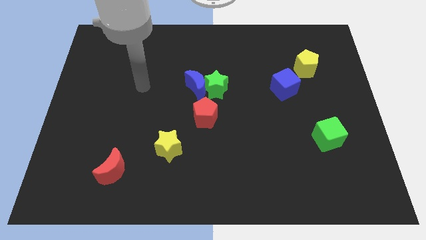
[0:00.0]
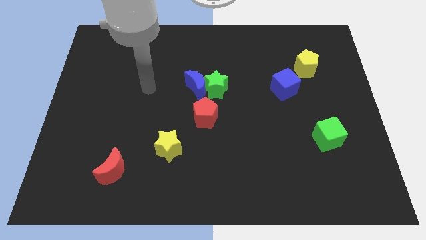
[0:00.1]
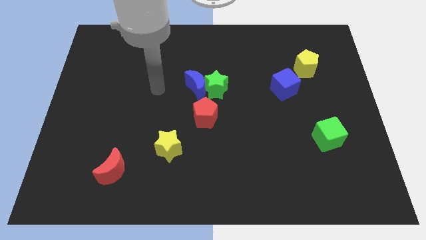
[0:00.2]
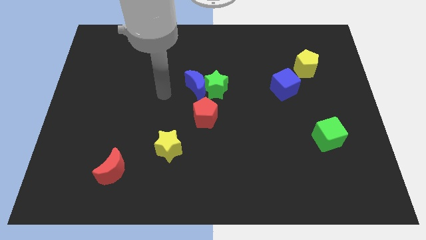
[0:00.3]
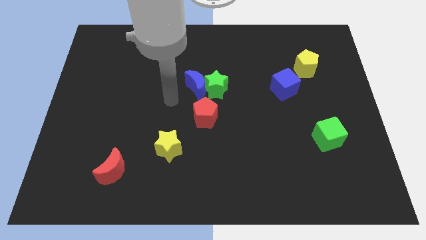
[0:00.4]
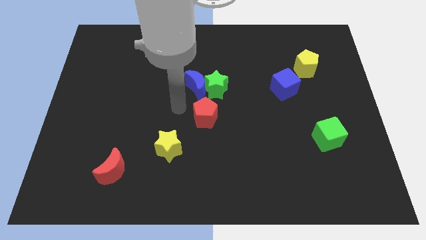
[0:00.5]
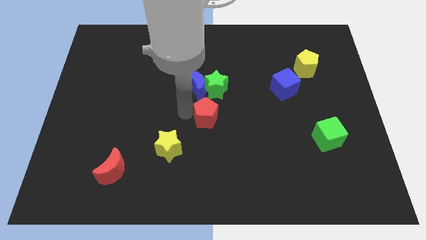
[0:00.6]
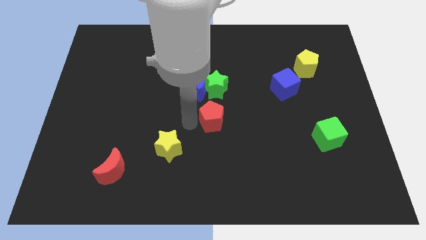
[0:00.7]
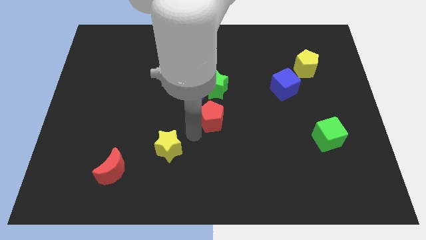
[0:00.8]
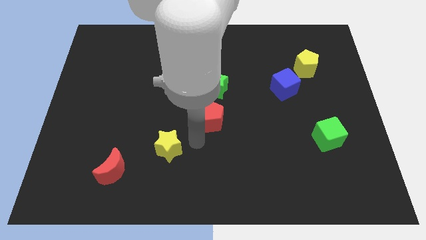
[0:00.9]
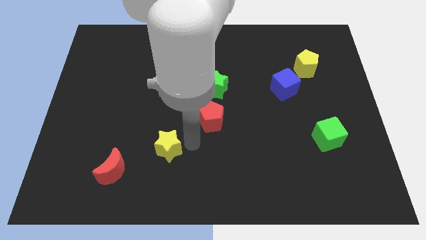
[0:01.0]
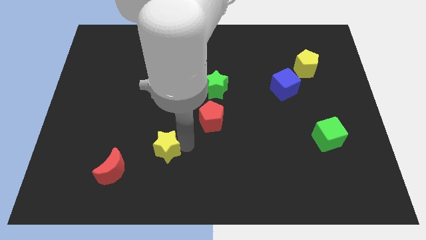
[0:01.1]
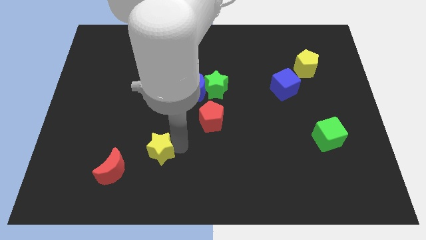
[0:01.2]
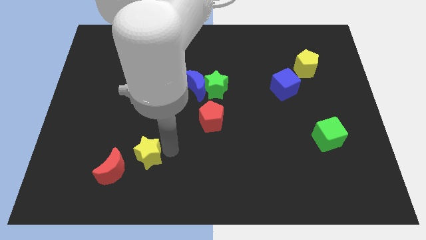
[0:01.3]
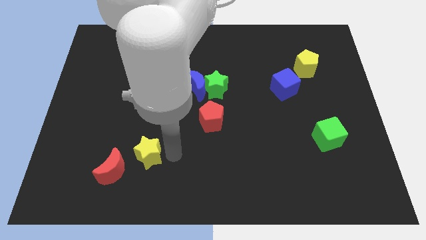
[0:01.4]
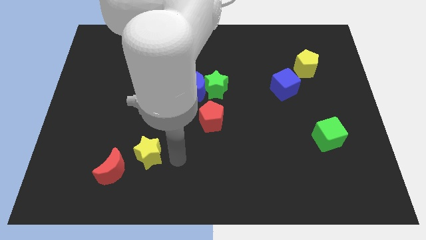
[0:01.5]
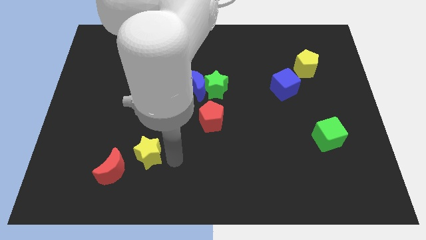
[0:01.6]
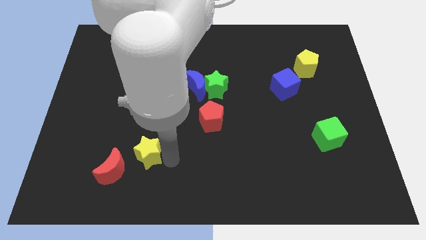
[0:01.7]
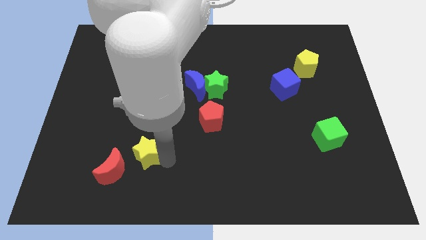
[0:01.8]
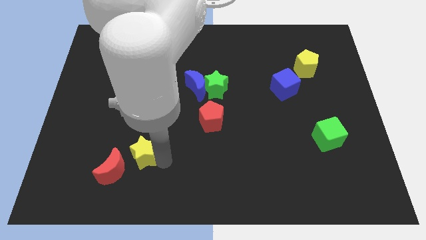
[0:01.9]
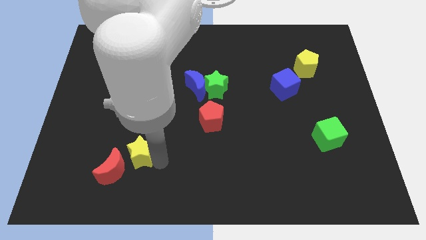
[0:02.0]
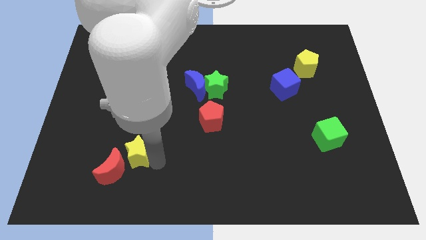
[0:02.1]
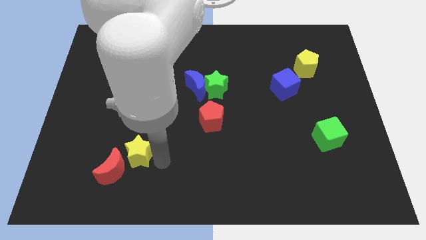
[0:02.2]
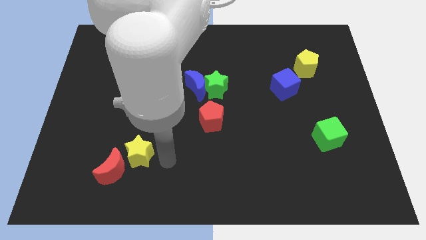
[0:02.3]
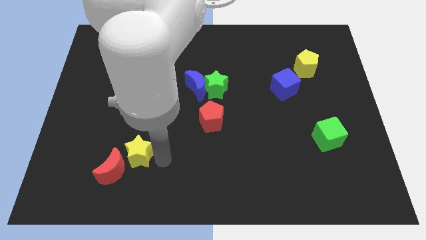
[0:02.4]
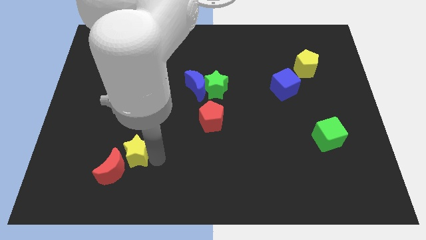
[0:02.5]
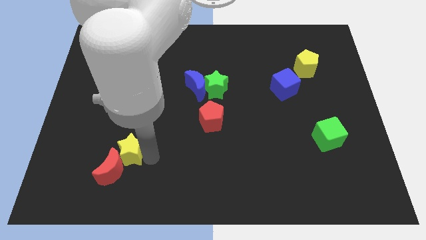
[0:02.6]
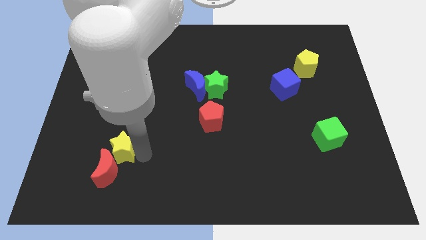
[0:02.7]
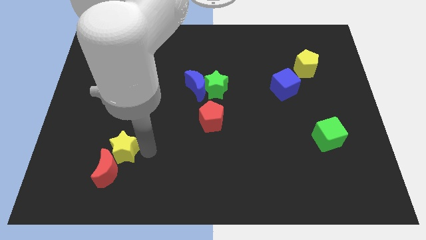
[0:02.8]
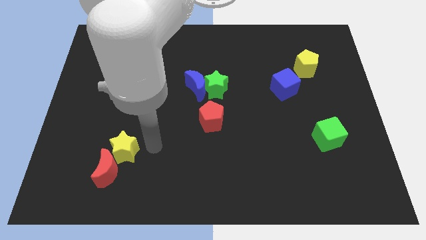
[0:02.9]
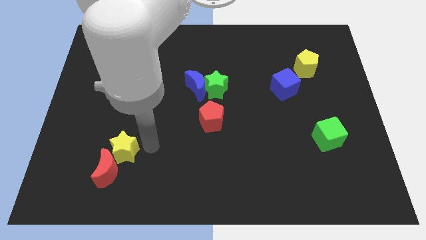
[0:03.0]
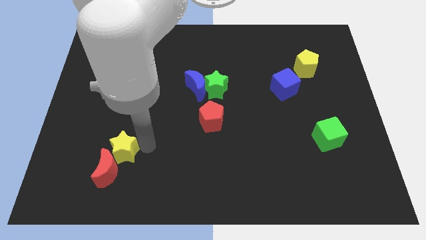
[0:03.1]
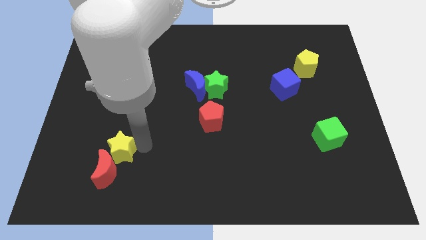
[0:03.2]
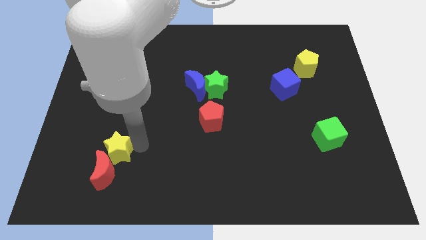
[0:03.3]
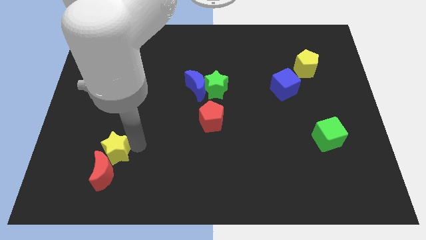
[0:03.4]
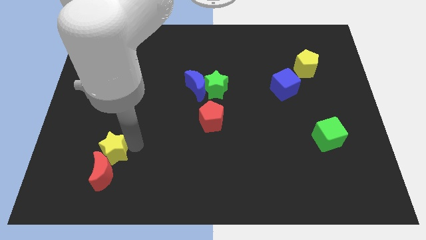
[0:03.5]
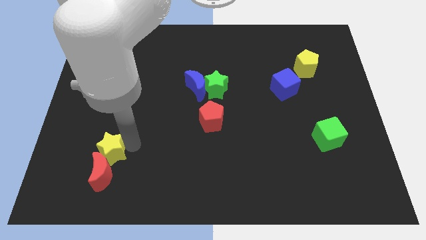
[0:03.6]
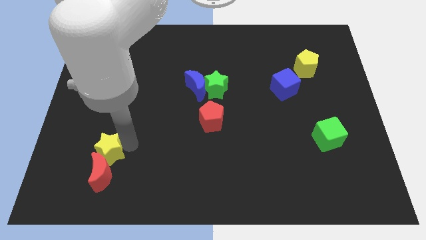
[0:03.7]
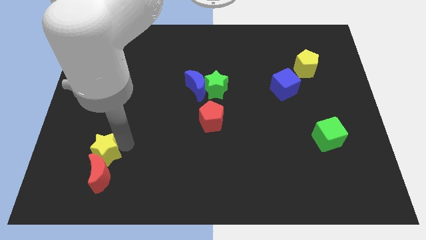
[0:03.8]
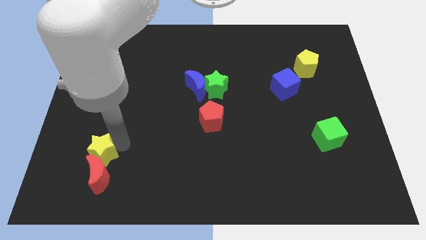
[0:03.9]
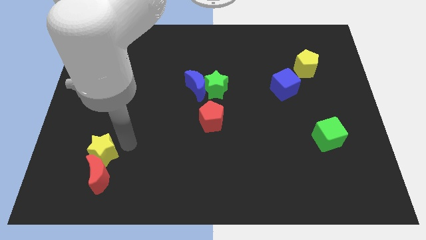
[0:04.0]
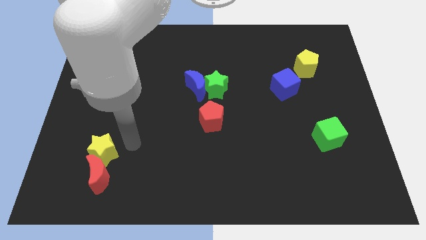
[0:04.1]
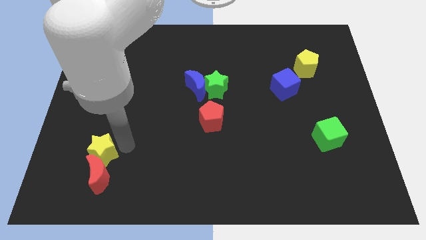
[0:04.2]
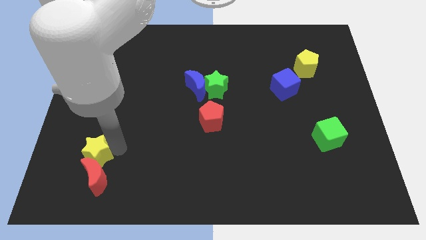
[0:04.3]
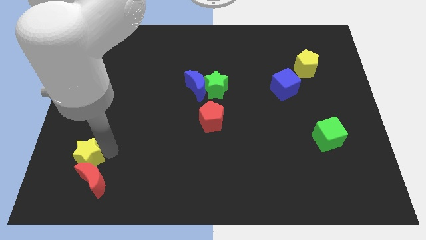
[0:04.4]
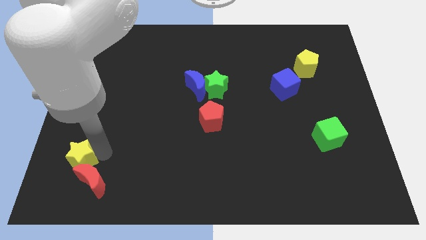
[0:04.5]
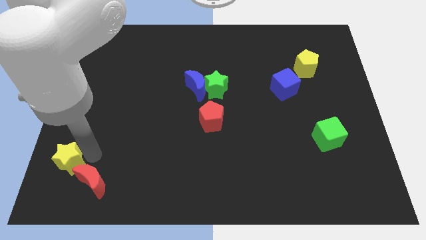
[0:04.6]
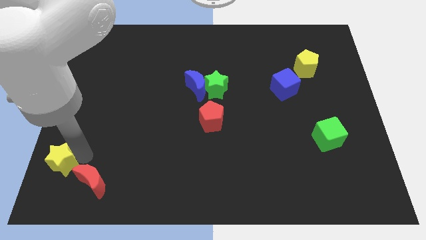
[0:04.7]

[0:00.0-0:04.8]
push the yellow star to the bottom left

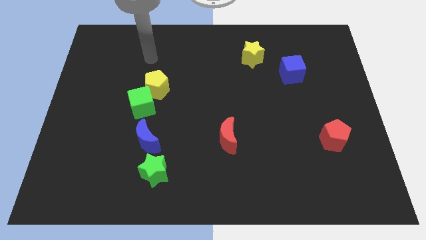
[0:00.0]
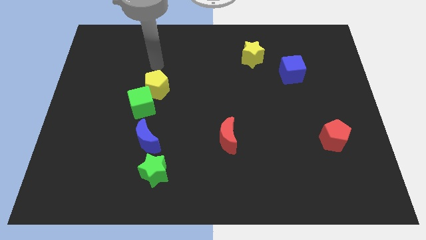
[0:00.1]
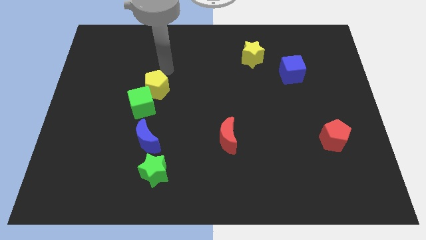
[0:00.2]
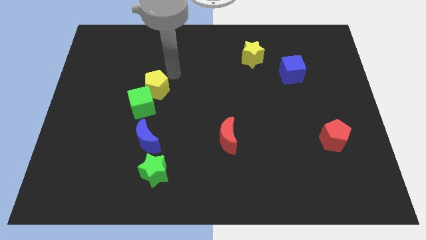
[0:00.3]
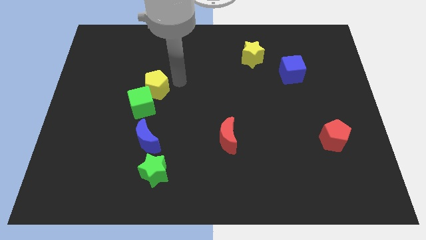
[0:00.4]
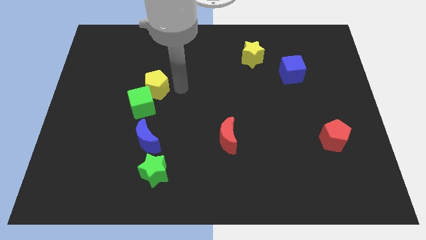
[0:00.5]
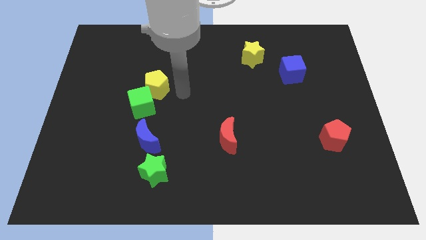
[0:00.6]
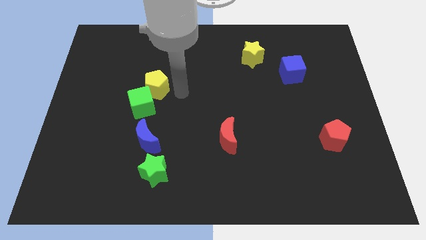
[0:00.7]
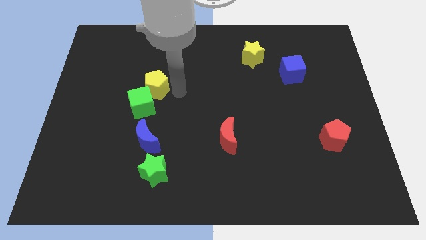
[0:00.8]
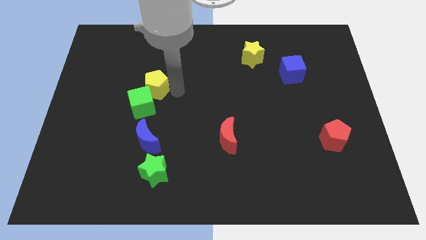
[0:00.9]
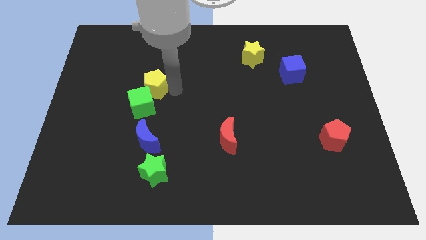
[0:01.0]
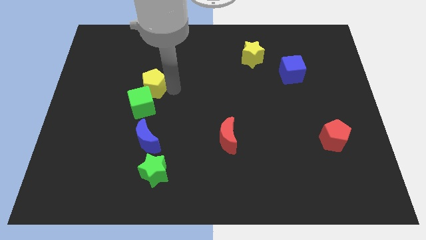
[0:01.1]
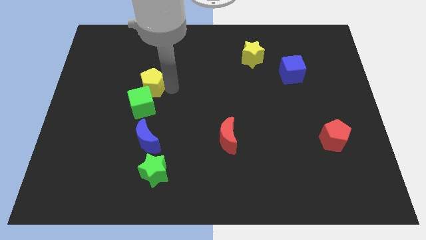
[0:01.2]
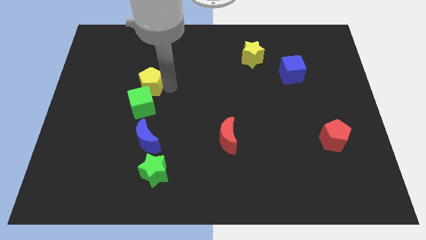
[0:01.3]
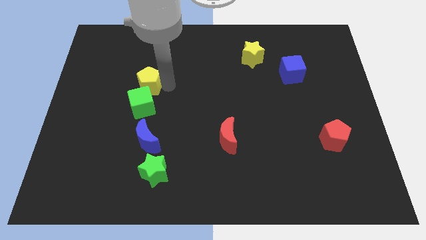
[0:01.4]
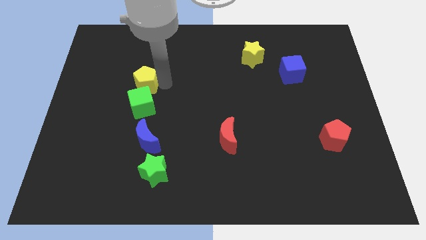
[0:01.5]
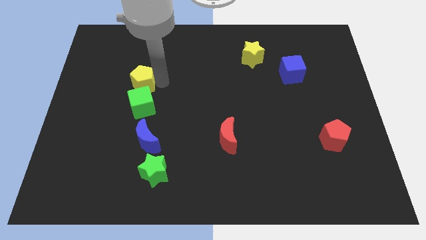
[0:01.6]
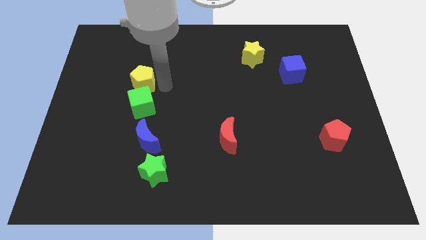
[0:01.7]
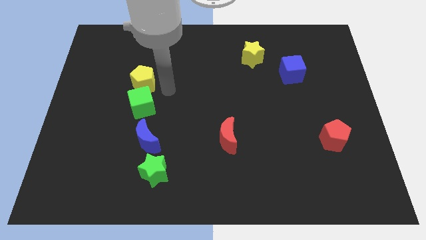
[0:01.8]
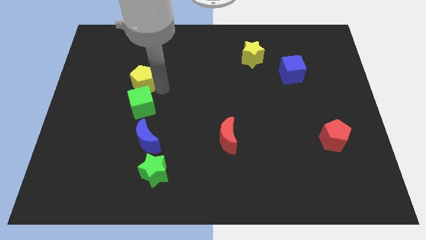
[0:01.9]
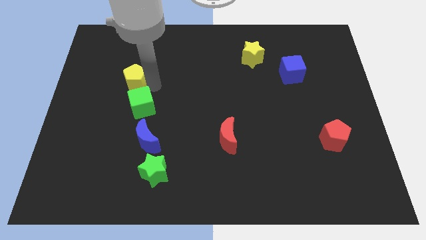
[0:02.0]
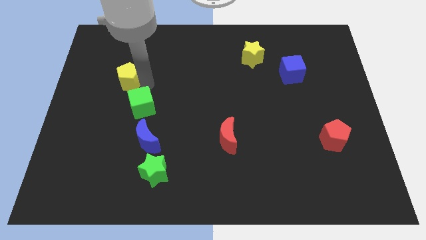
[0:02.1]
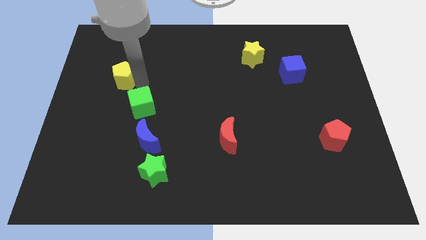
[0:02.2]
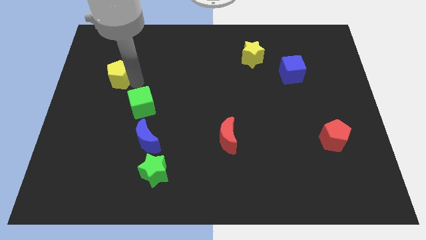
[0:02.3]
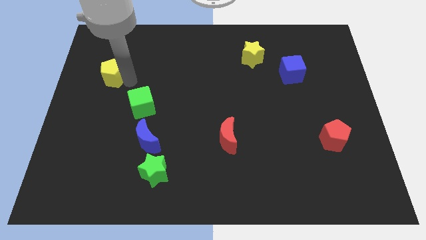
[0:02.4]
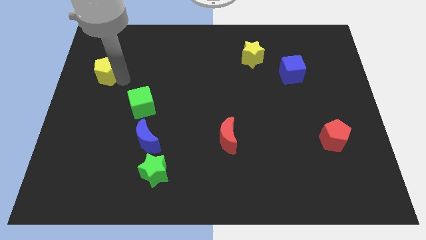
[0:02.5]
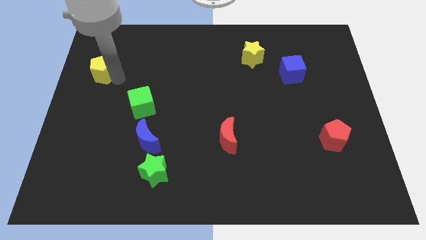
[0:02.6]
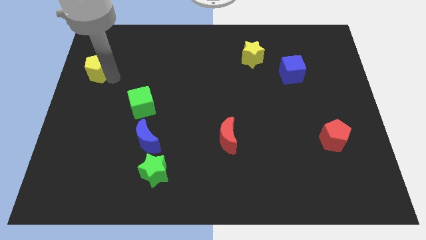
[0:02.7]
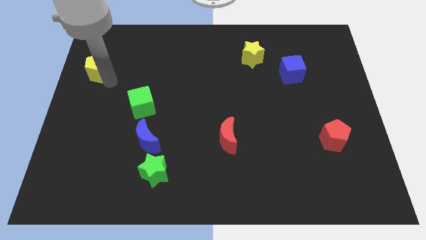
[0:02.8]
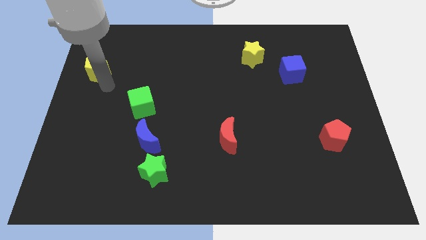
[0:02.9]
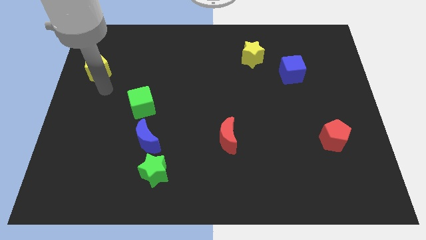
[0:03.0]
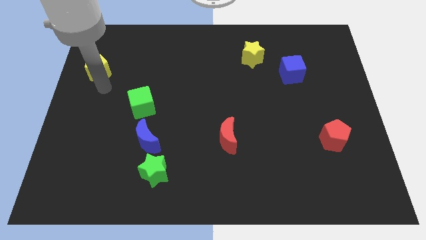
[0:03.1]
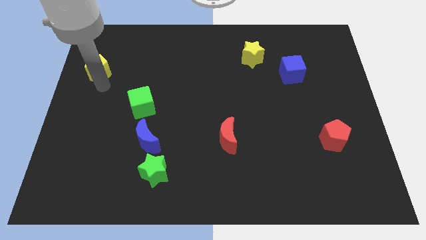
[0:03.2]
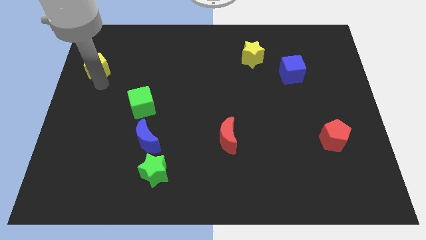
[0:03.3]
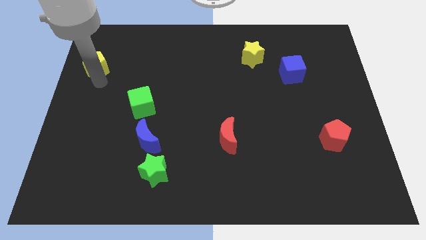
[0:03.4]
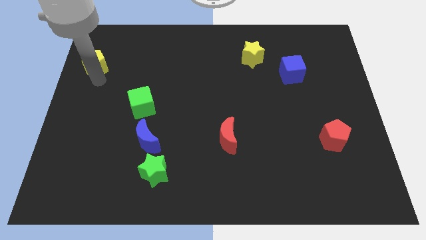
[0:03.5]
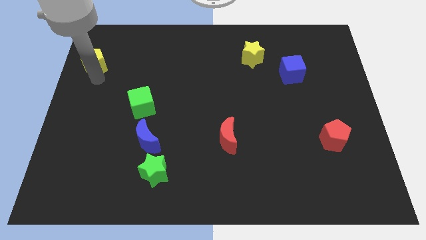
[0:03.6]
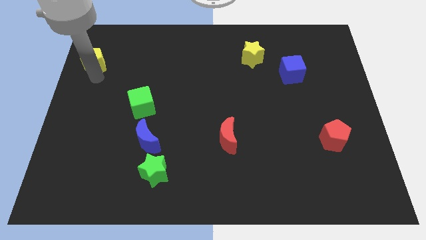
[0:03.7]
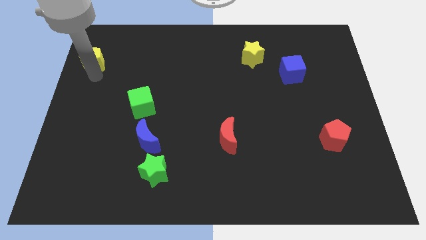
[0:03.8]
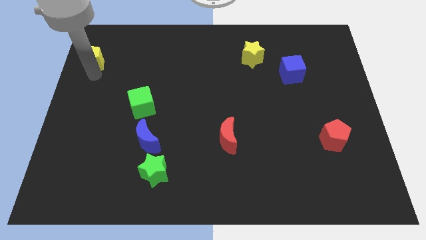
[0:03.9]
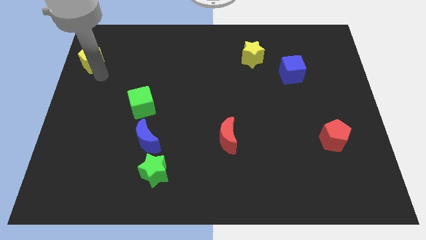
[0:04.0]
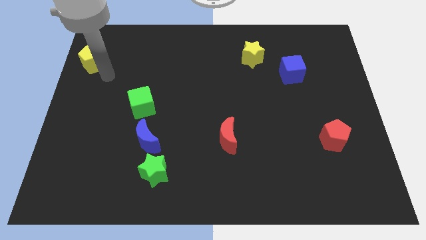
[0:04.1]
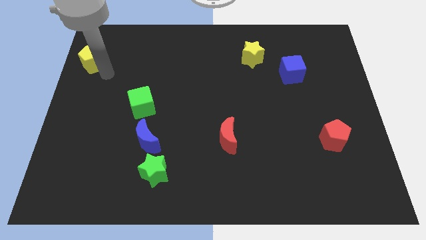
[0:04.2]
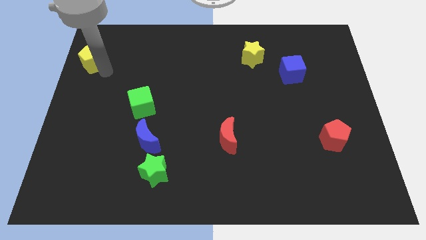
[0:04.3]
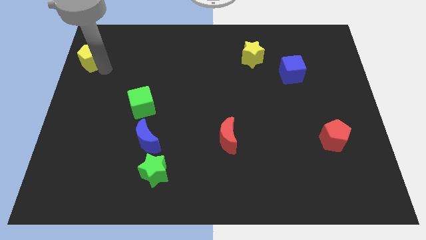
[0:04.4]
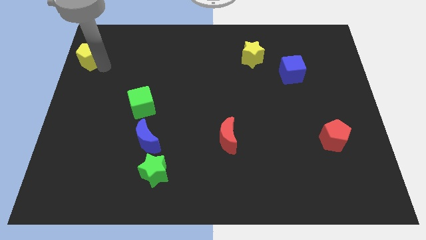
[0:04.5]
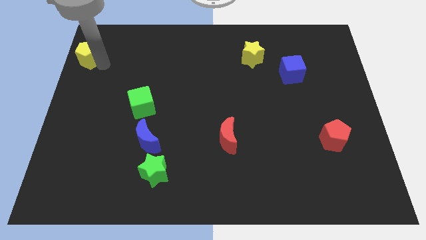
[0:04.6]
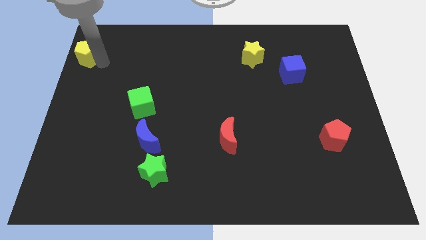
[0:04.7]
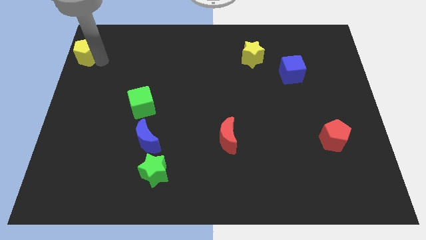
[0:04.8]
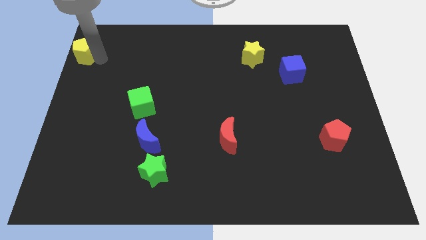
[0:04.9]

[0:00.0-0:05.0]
move the yellow pentagon to the top left
